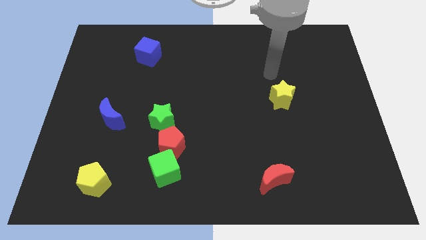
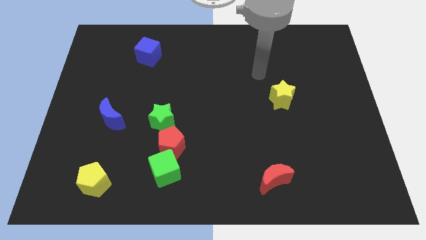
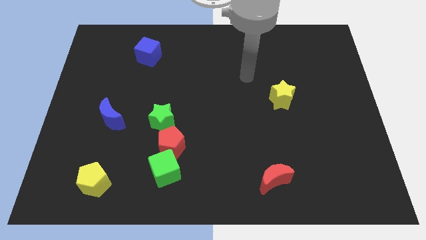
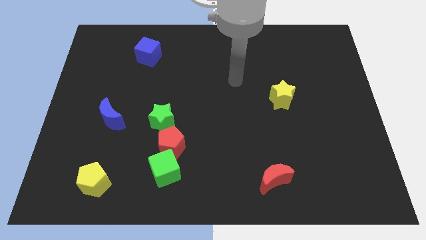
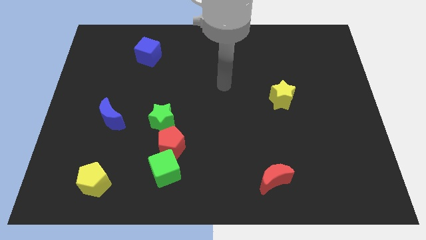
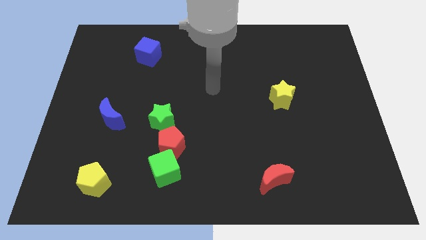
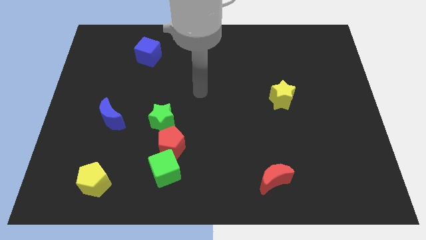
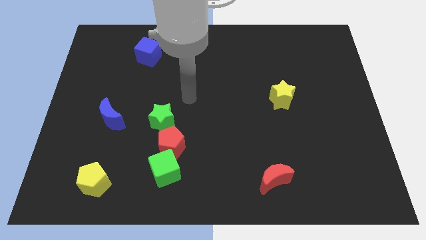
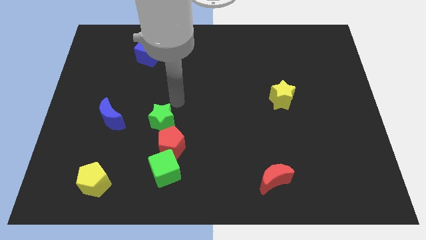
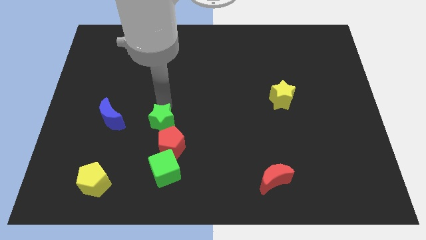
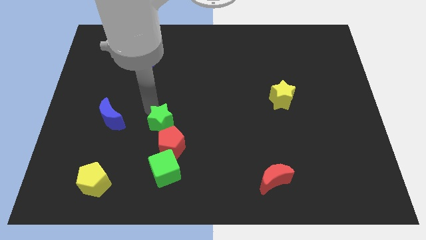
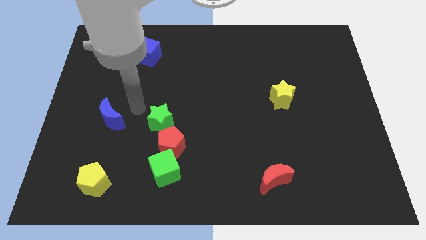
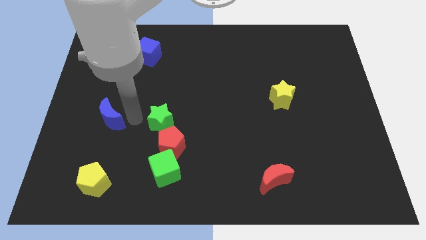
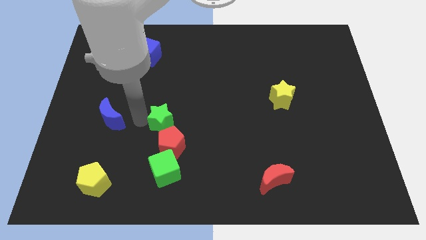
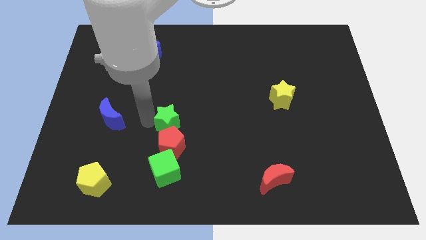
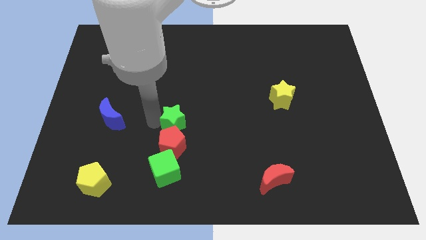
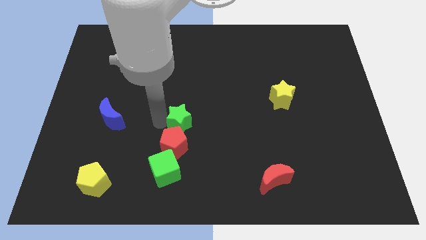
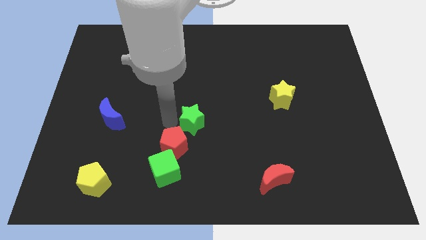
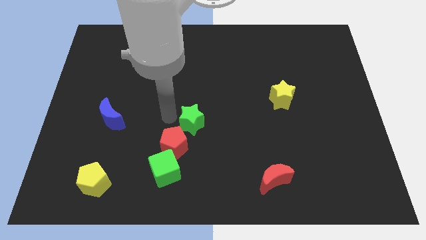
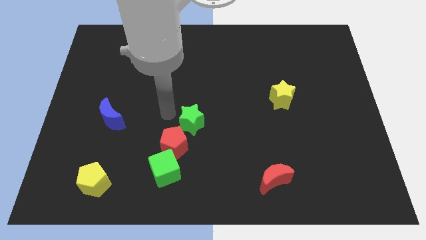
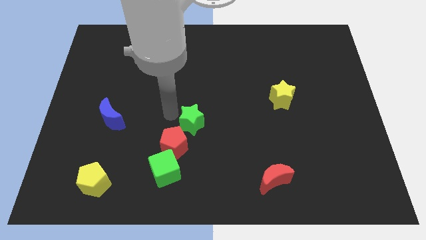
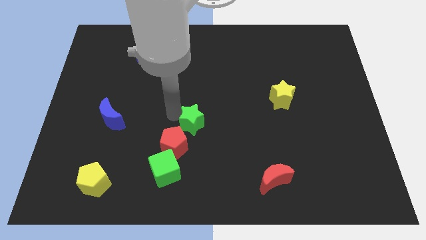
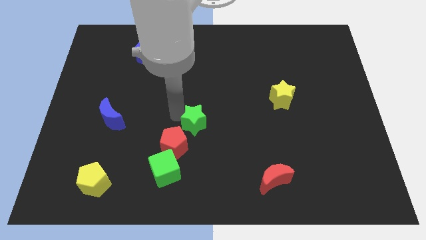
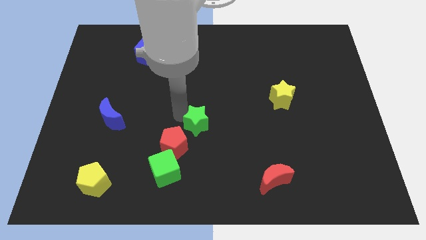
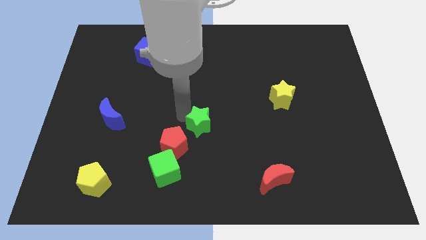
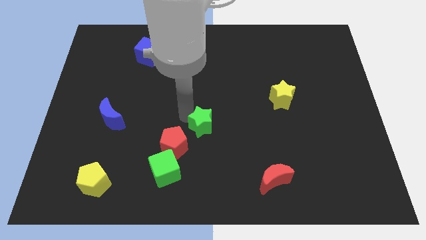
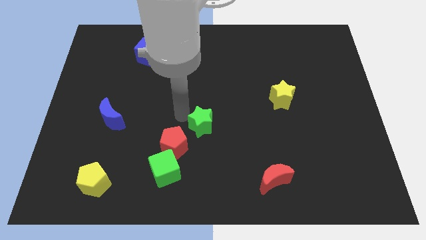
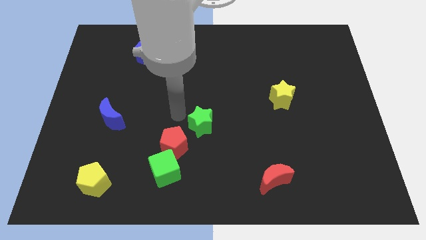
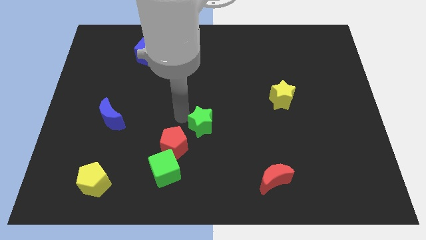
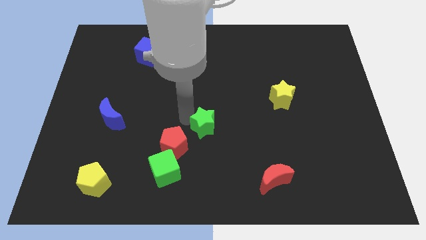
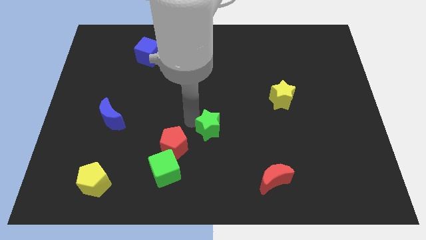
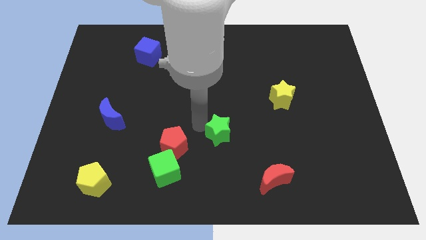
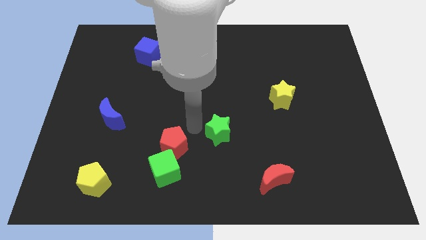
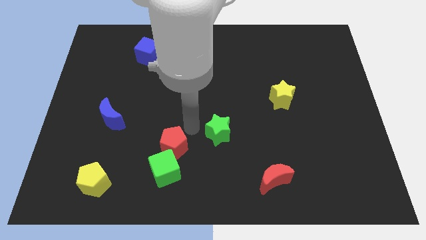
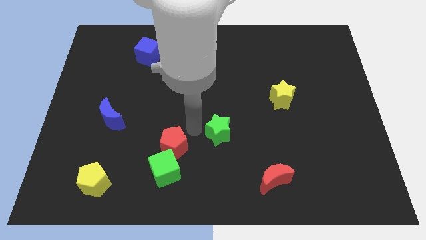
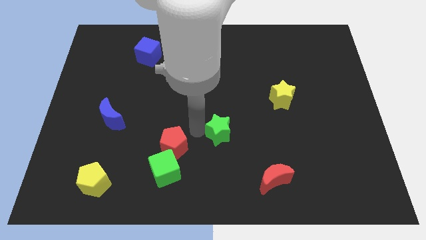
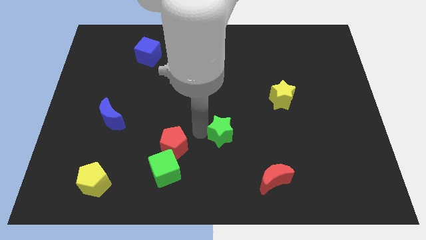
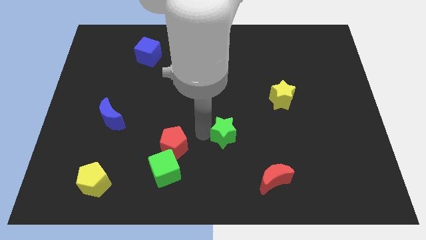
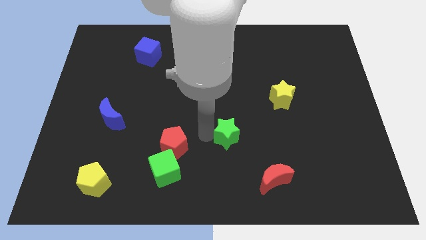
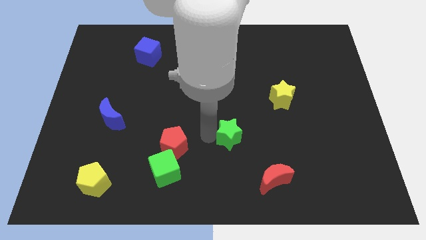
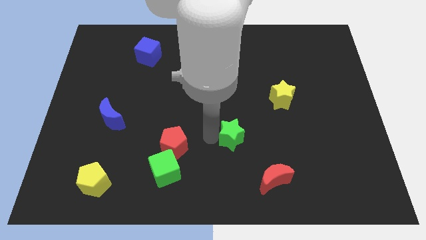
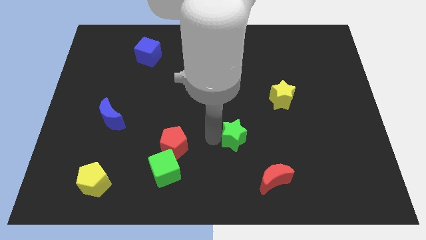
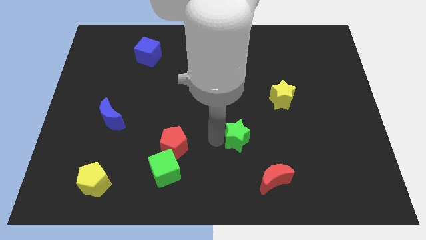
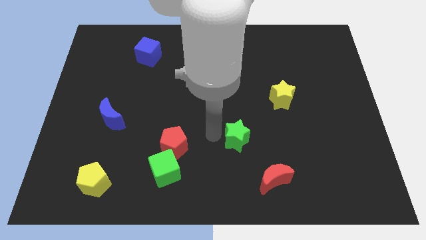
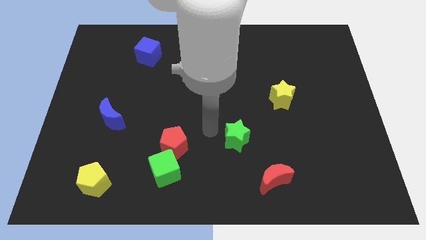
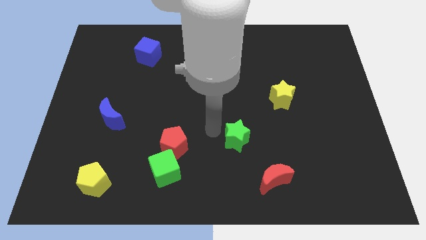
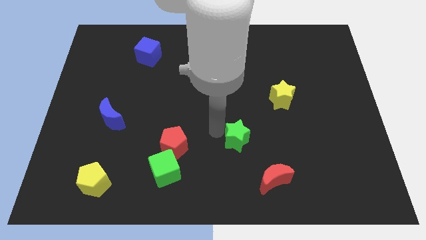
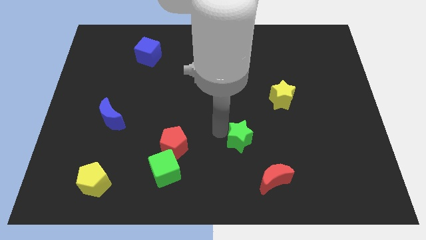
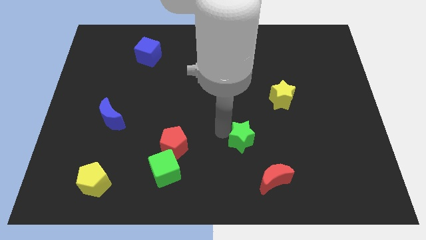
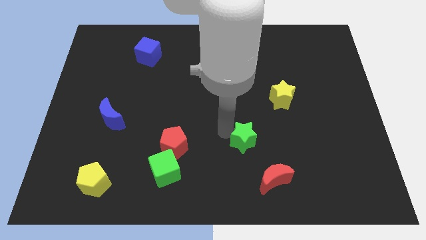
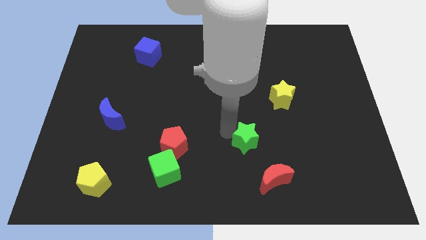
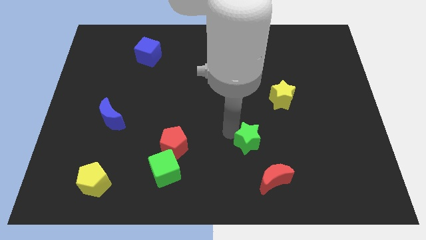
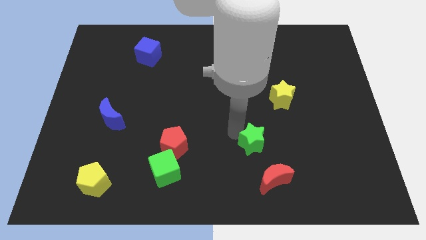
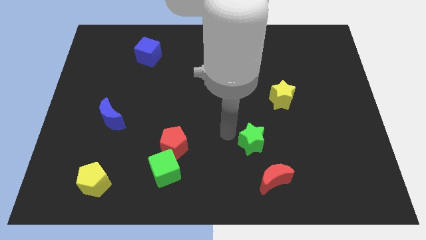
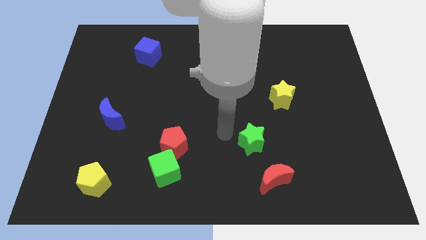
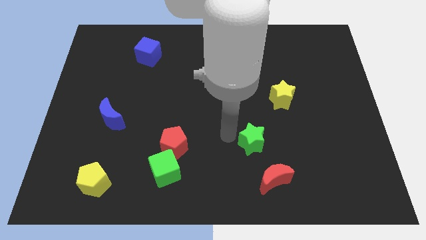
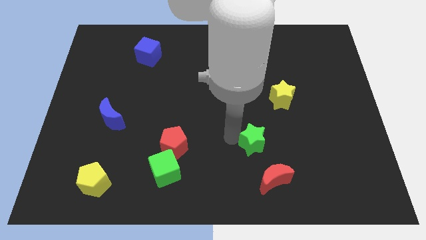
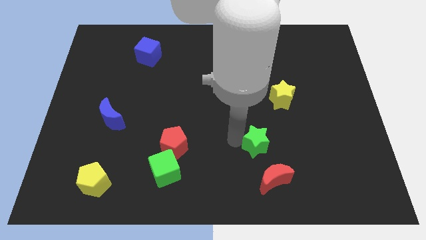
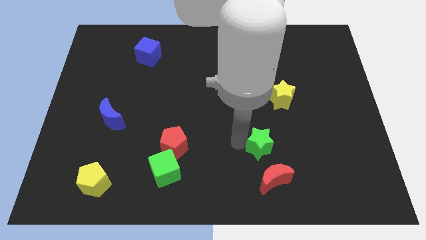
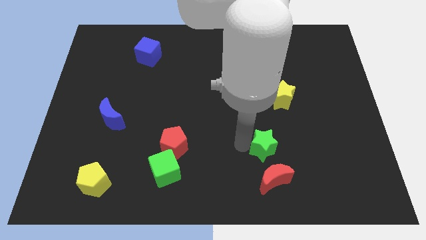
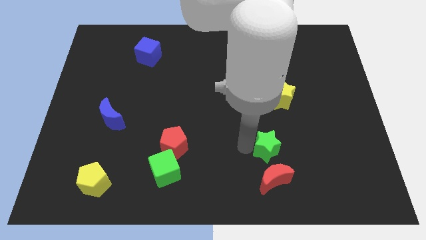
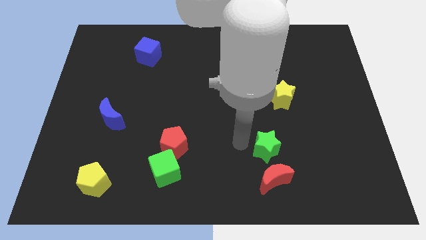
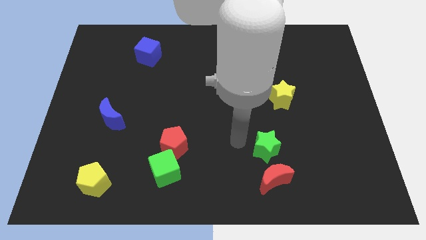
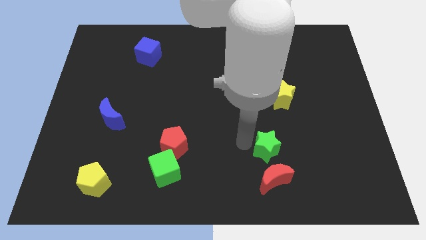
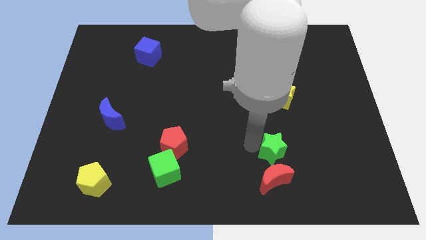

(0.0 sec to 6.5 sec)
move the green star to the top right side of the red moon

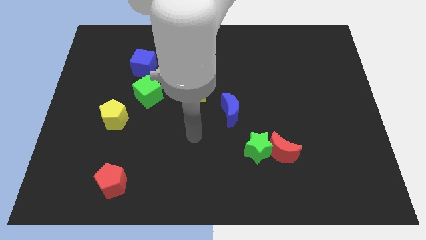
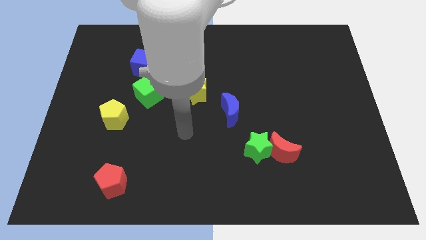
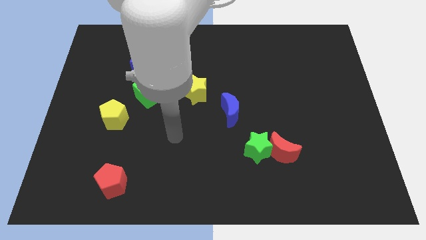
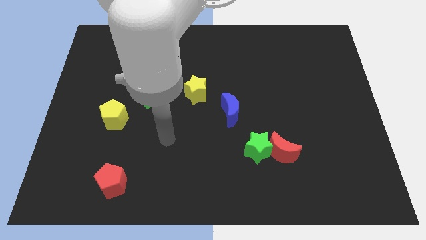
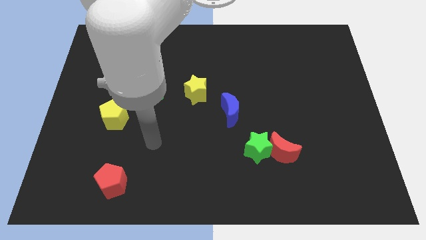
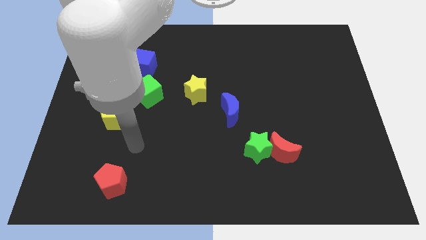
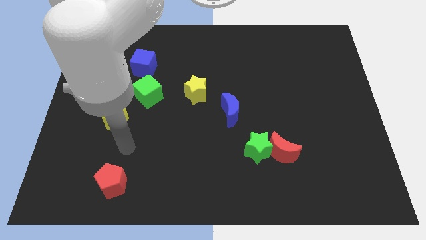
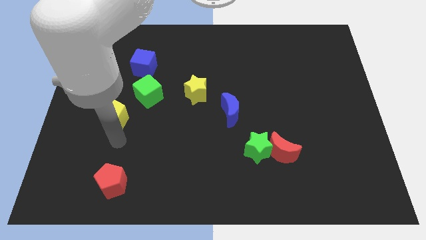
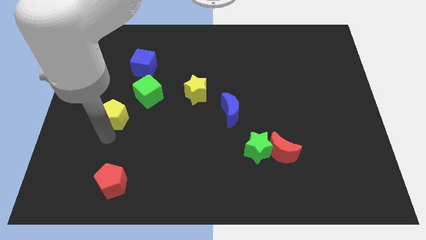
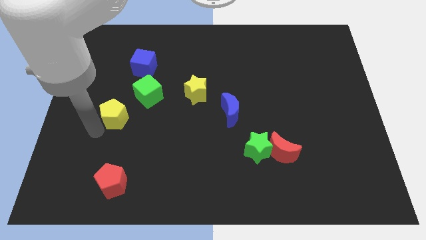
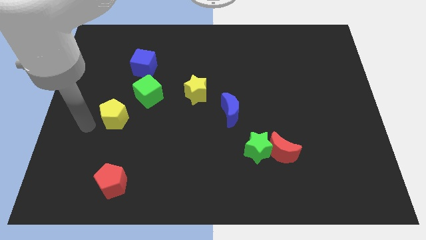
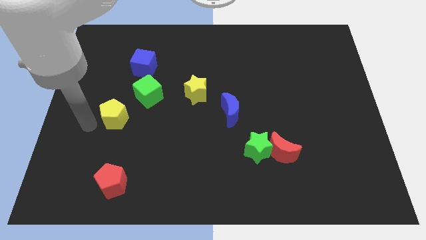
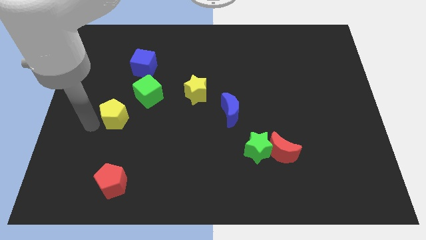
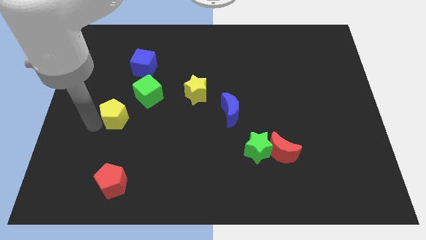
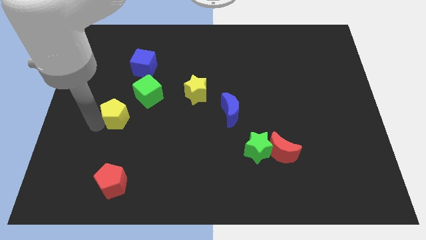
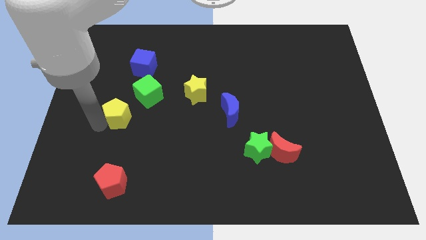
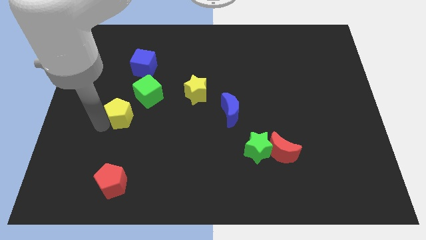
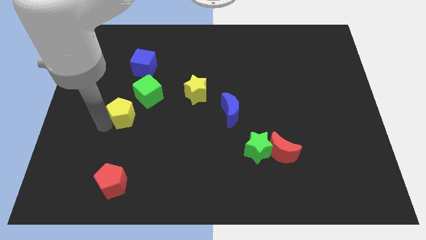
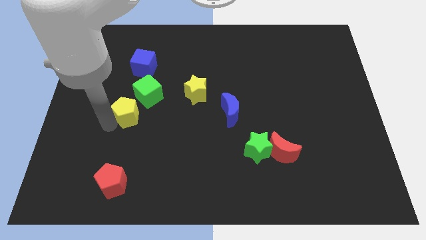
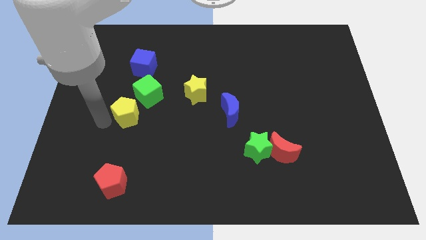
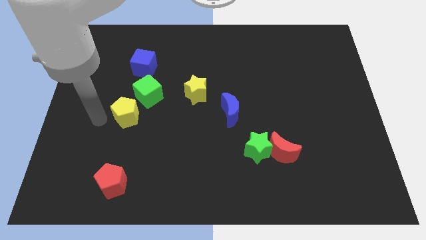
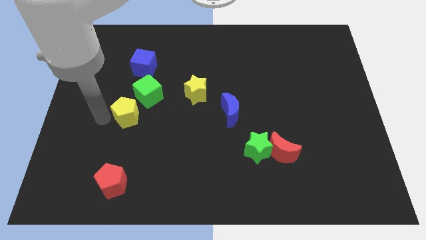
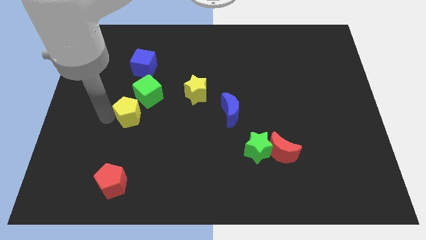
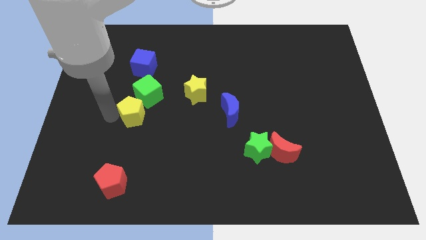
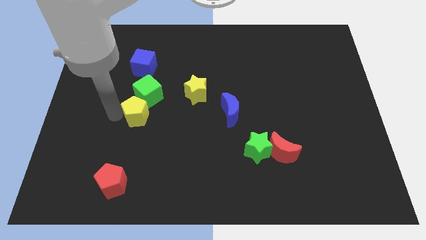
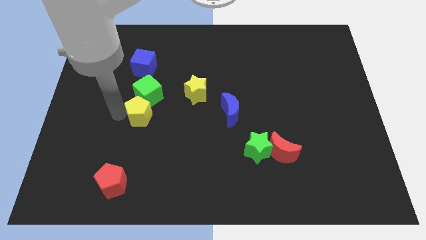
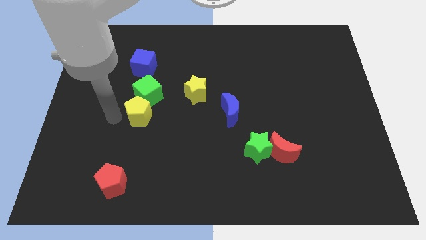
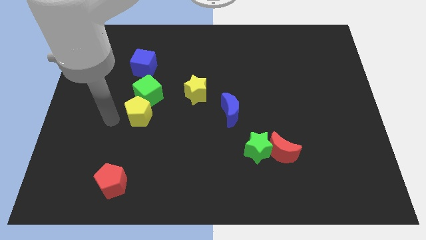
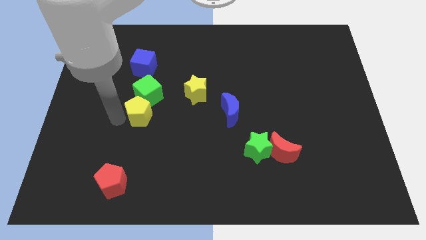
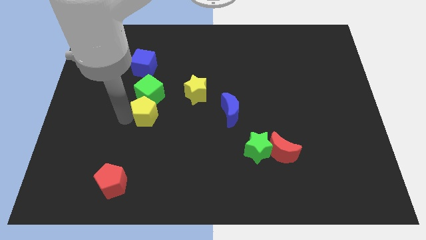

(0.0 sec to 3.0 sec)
put the yellow pentagon to the bottom right side of the green cube
